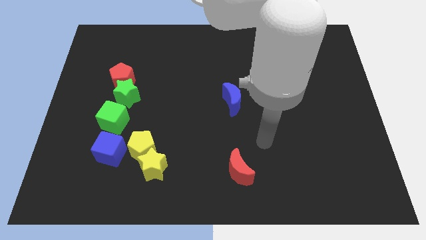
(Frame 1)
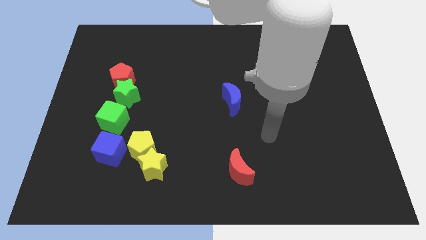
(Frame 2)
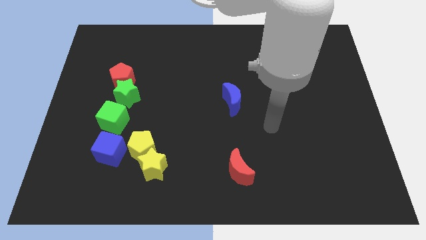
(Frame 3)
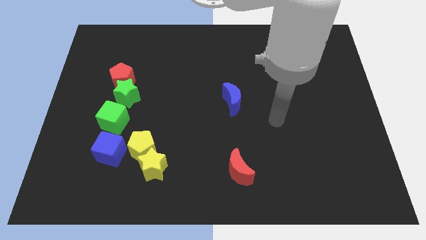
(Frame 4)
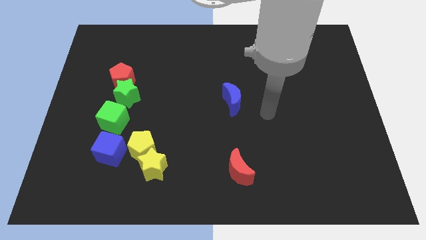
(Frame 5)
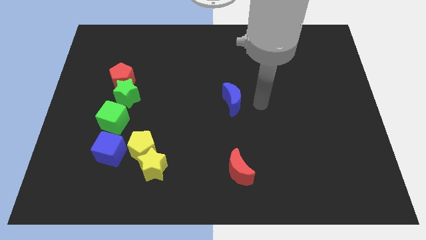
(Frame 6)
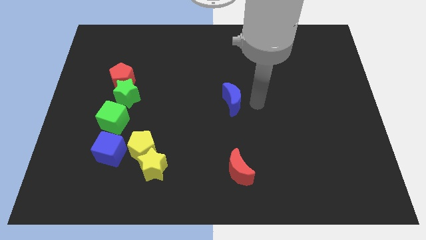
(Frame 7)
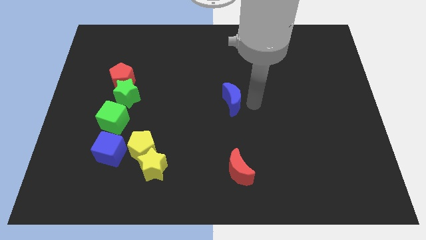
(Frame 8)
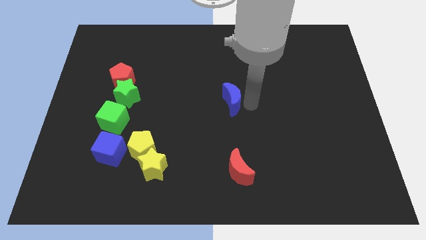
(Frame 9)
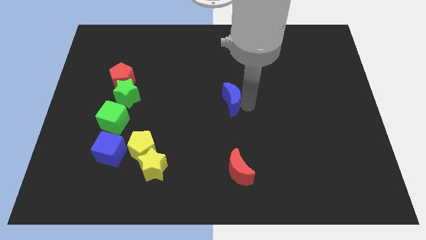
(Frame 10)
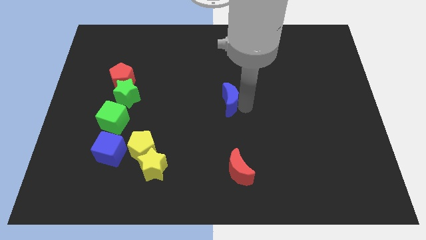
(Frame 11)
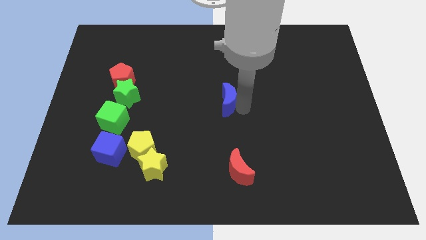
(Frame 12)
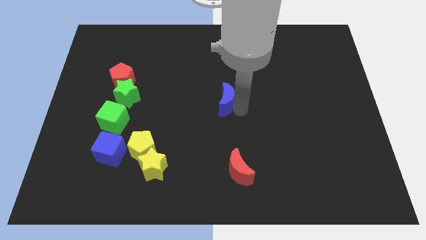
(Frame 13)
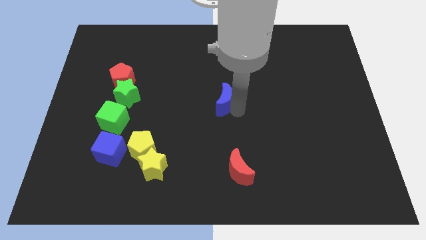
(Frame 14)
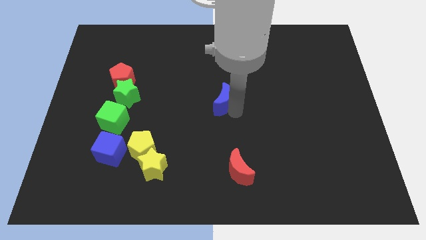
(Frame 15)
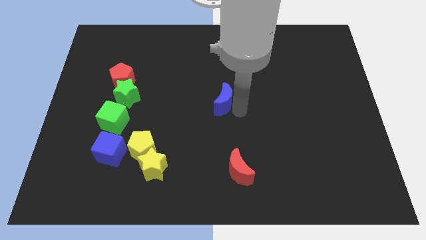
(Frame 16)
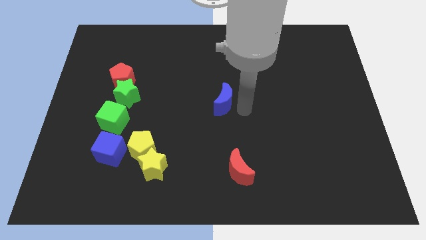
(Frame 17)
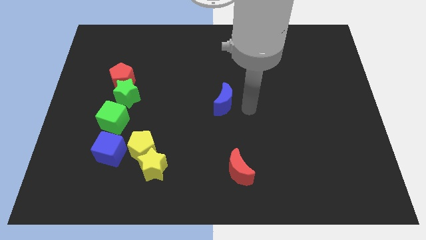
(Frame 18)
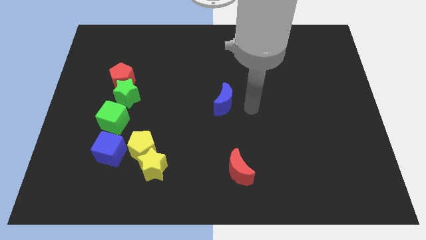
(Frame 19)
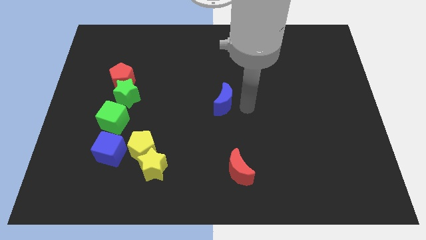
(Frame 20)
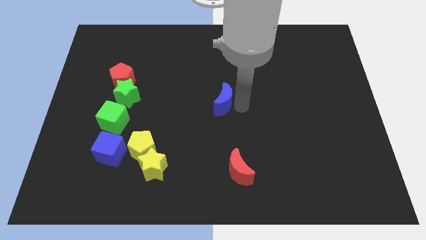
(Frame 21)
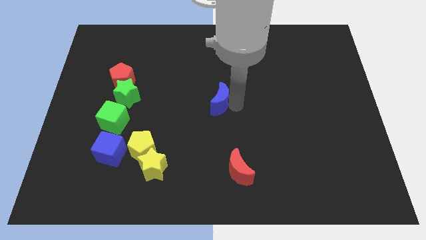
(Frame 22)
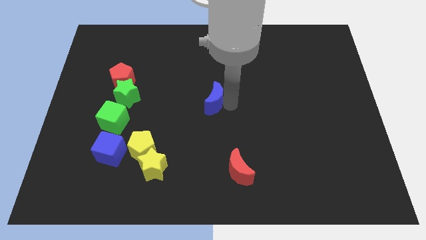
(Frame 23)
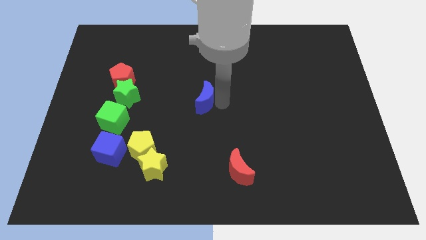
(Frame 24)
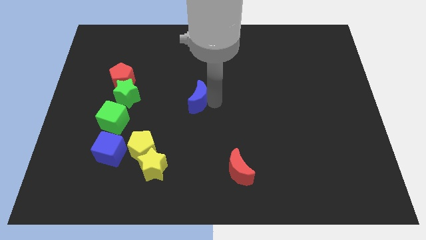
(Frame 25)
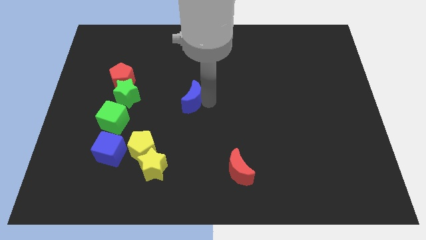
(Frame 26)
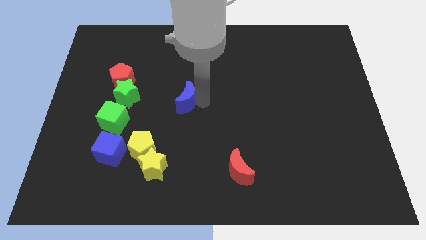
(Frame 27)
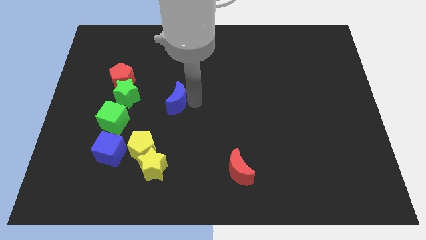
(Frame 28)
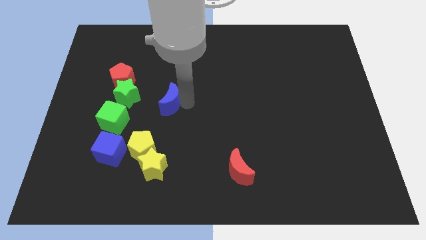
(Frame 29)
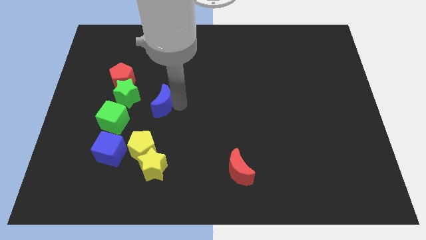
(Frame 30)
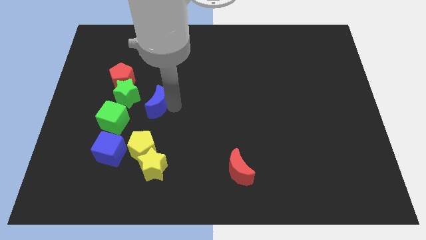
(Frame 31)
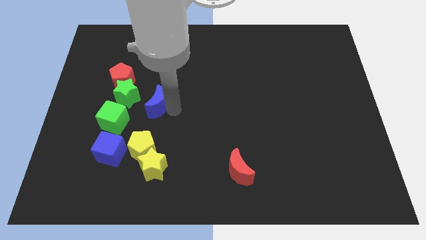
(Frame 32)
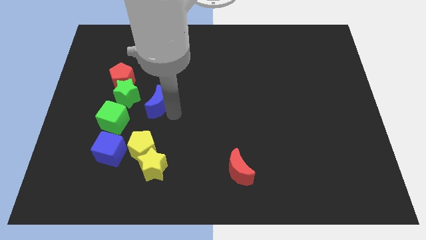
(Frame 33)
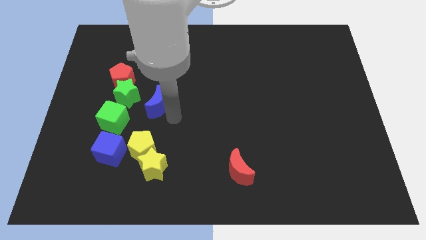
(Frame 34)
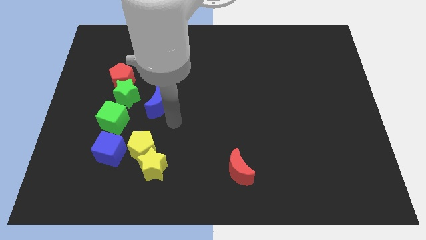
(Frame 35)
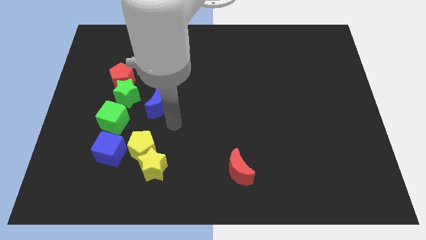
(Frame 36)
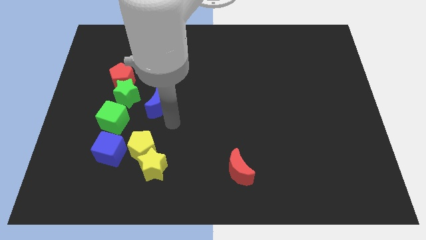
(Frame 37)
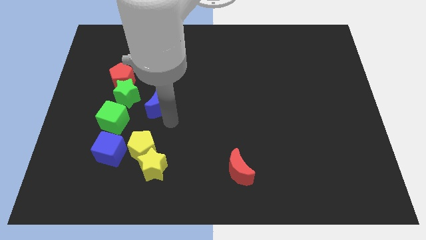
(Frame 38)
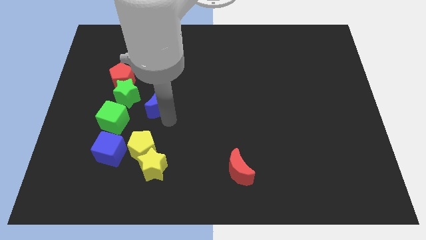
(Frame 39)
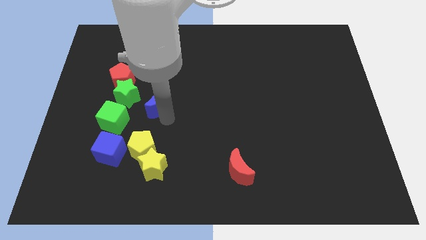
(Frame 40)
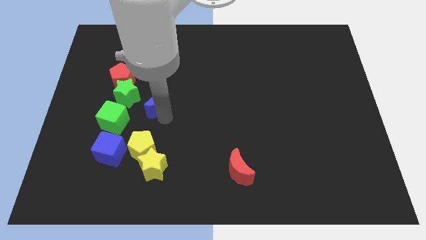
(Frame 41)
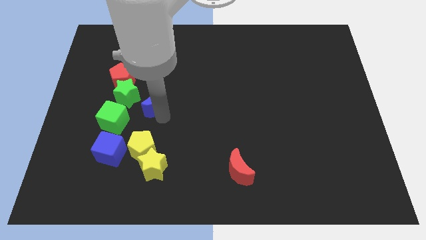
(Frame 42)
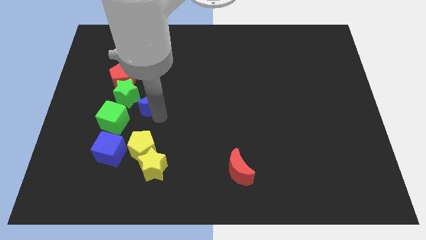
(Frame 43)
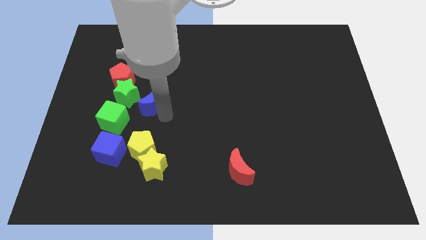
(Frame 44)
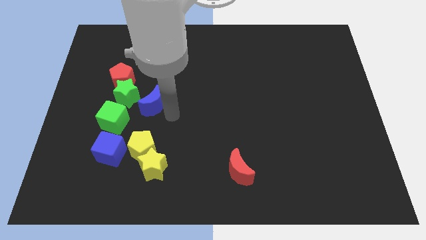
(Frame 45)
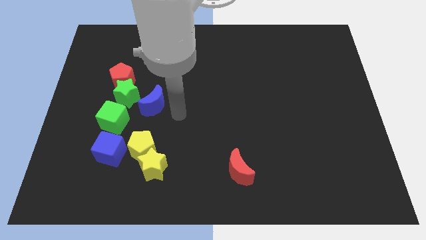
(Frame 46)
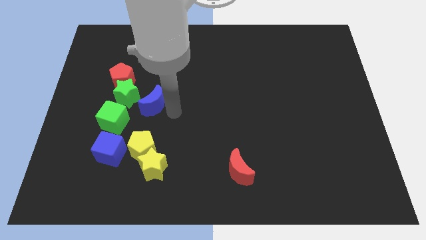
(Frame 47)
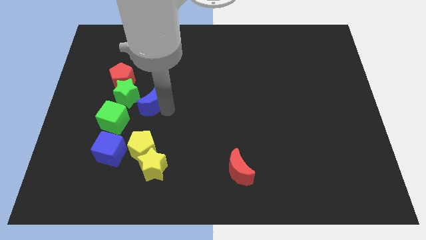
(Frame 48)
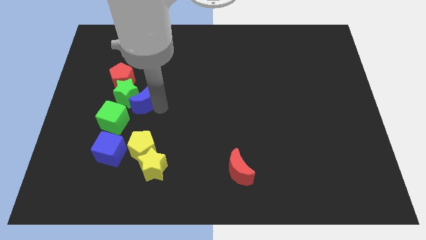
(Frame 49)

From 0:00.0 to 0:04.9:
put the blue moon close to the green star

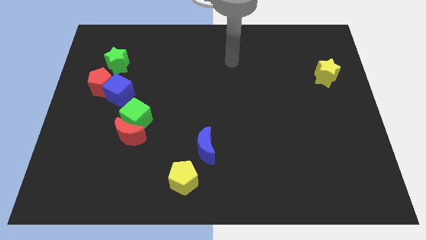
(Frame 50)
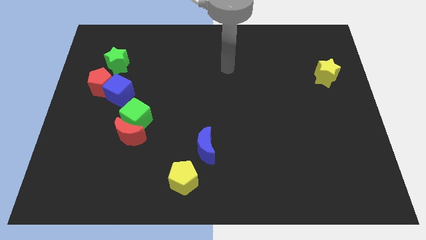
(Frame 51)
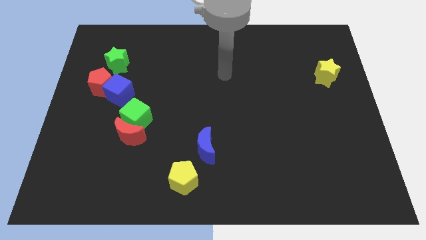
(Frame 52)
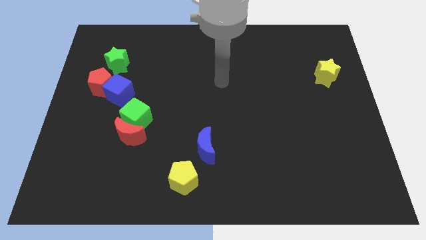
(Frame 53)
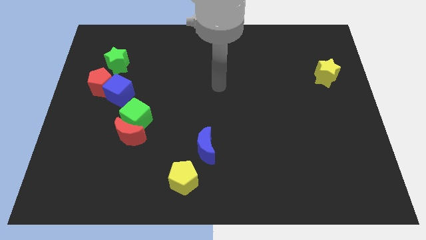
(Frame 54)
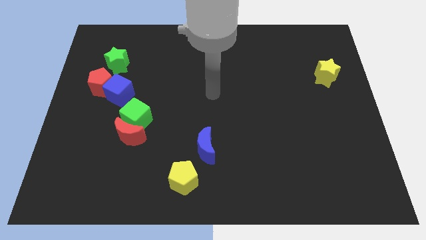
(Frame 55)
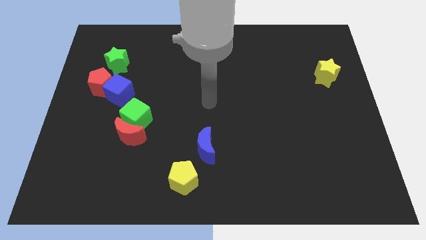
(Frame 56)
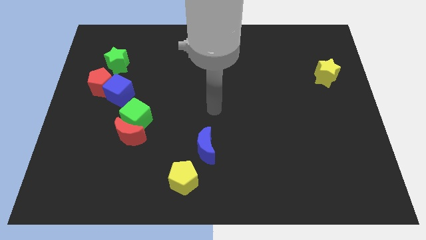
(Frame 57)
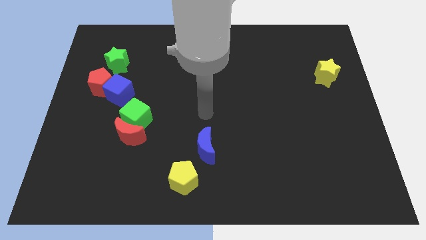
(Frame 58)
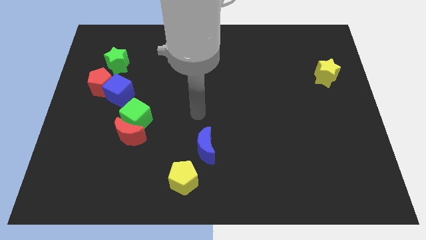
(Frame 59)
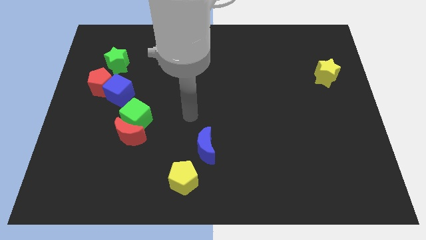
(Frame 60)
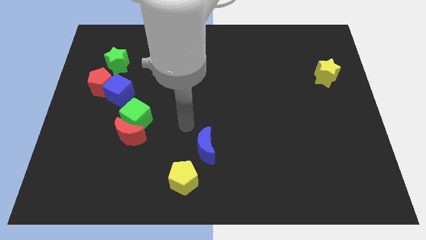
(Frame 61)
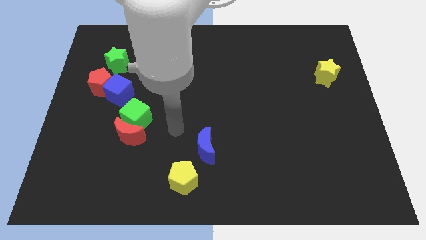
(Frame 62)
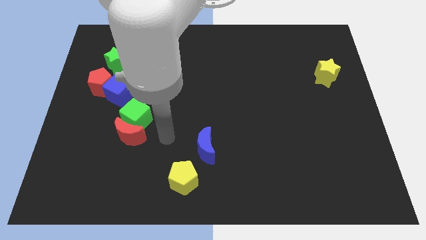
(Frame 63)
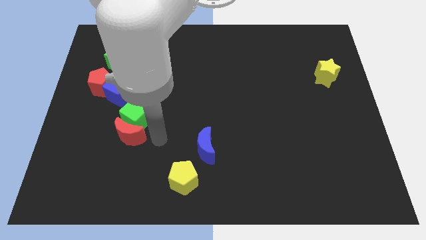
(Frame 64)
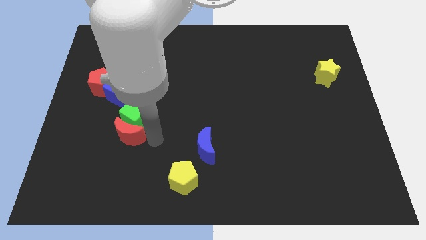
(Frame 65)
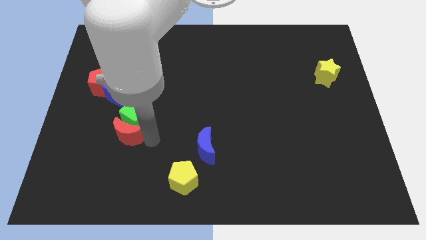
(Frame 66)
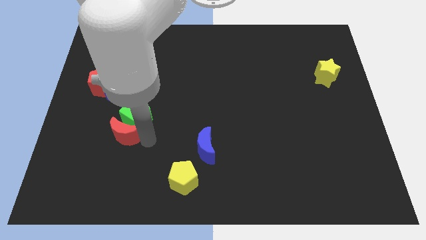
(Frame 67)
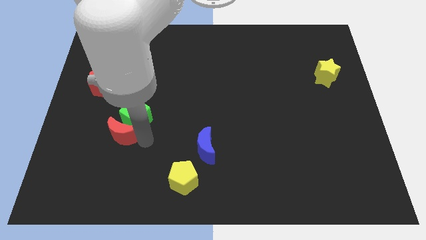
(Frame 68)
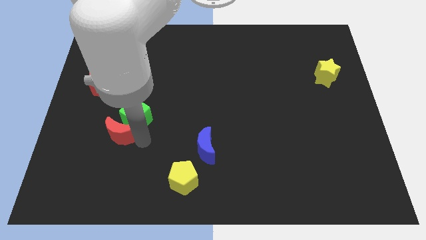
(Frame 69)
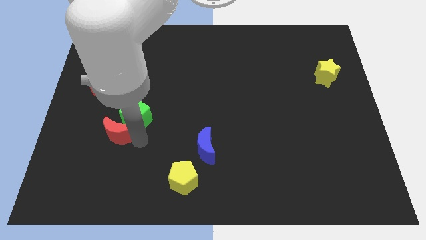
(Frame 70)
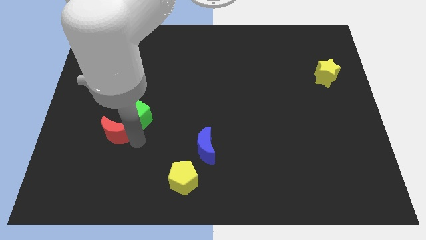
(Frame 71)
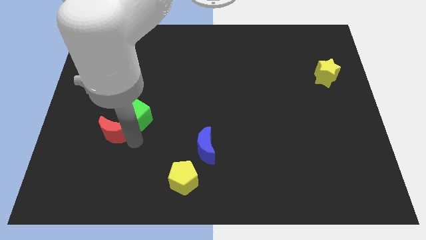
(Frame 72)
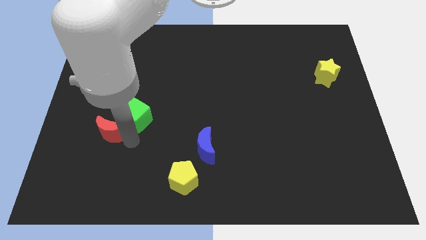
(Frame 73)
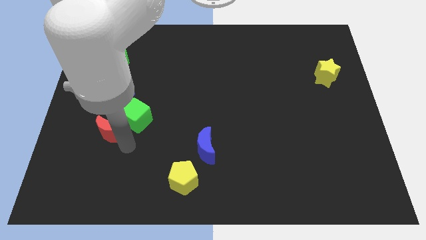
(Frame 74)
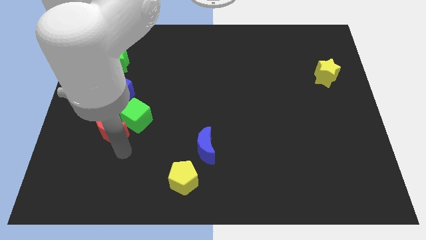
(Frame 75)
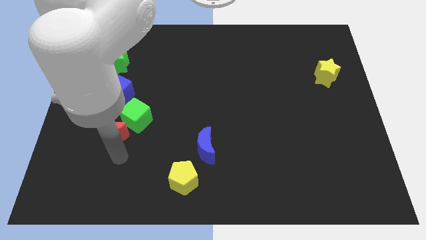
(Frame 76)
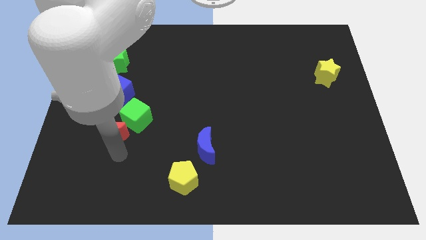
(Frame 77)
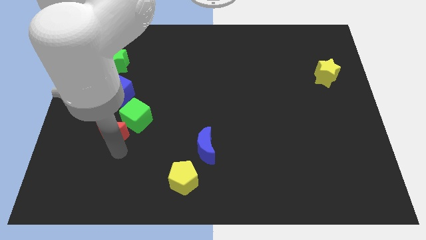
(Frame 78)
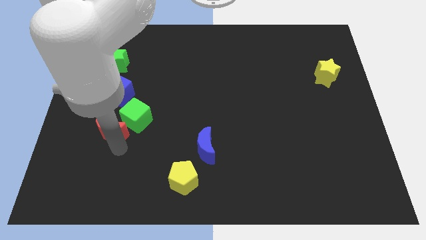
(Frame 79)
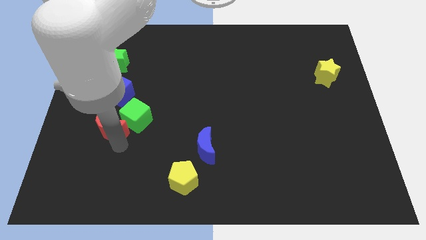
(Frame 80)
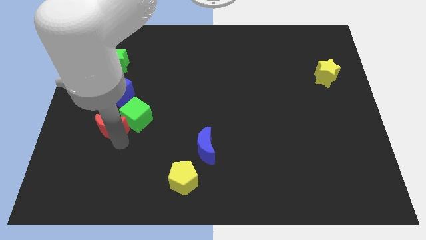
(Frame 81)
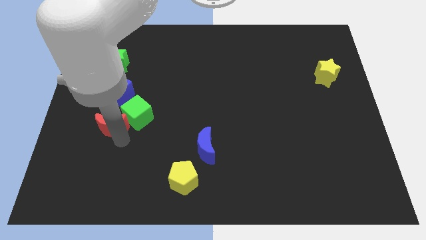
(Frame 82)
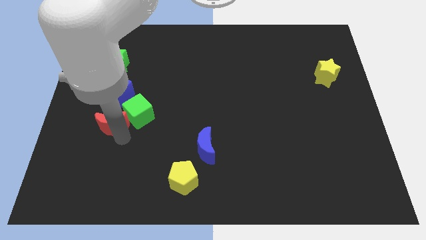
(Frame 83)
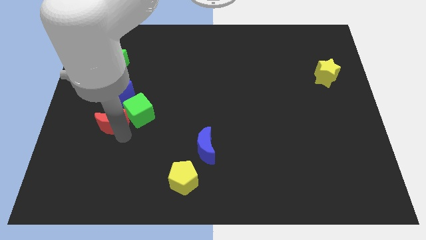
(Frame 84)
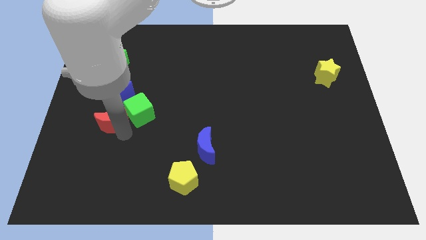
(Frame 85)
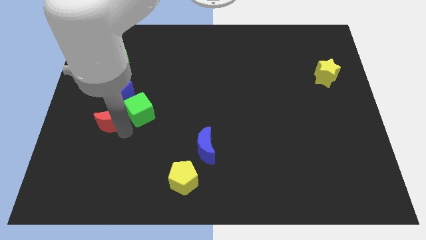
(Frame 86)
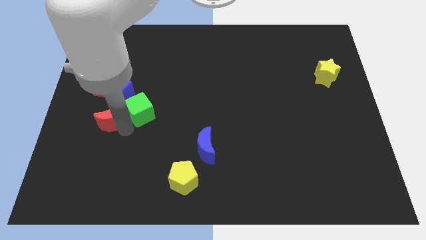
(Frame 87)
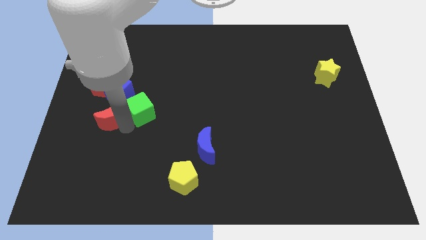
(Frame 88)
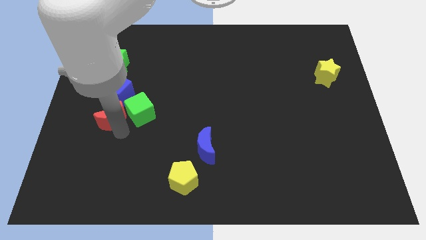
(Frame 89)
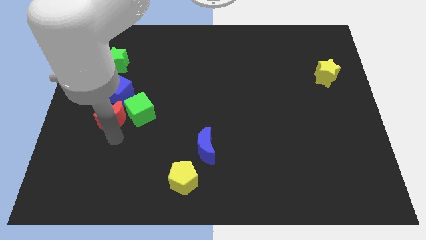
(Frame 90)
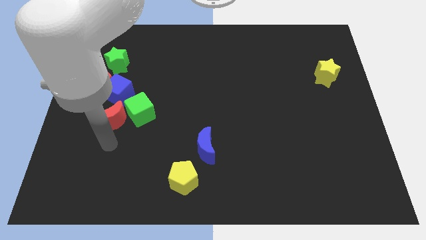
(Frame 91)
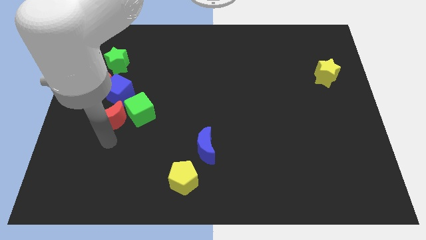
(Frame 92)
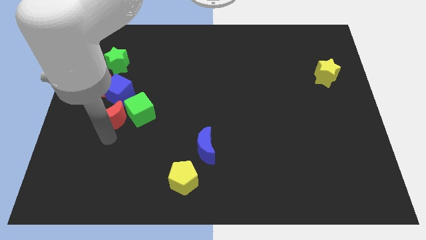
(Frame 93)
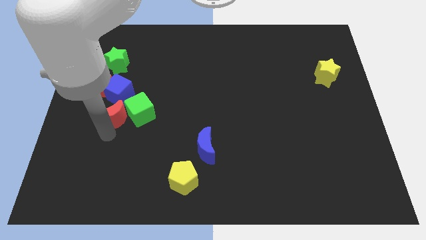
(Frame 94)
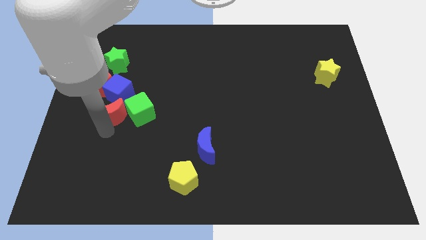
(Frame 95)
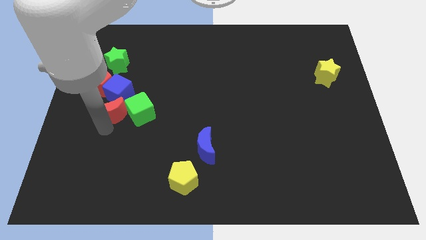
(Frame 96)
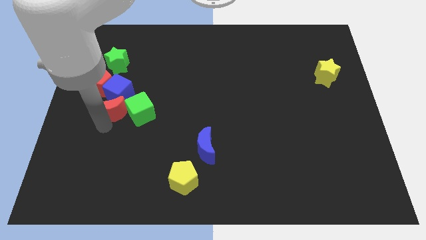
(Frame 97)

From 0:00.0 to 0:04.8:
move the red moon next to the blue cube
